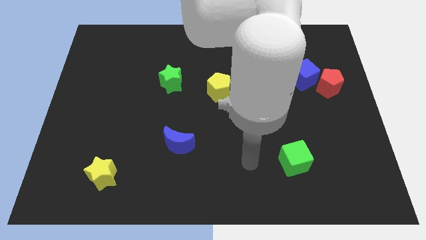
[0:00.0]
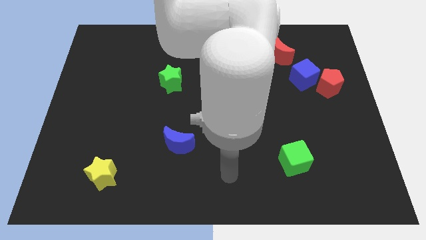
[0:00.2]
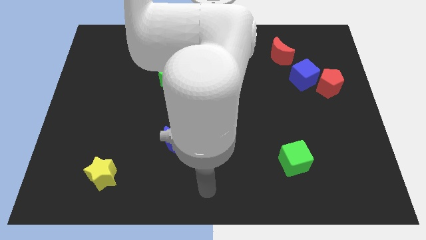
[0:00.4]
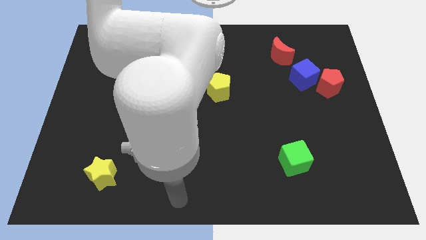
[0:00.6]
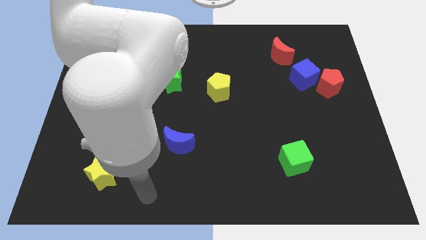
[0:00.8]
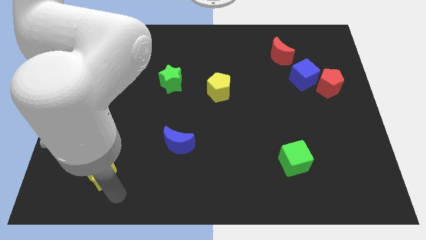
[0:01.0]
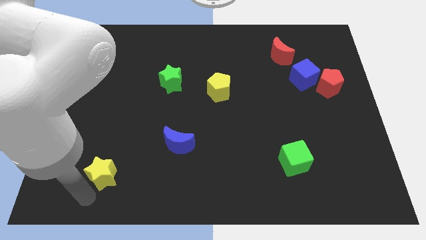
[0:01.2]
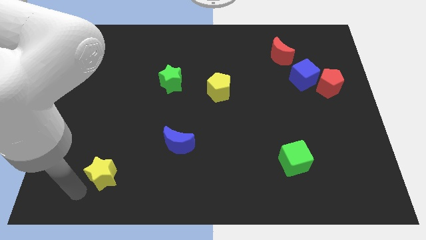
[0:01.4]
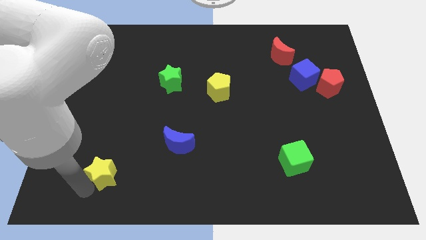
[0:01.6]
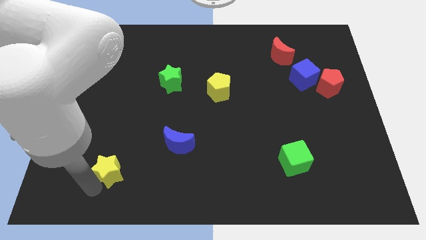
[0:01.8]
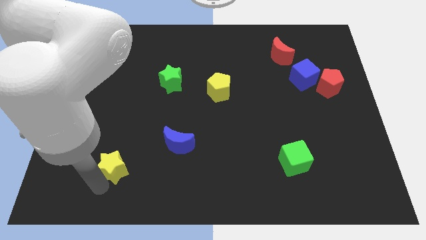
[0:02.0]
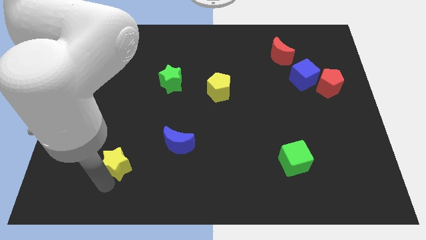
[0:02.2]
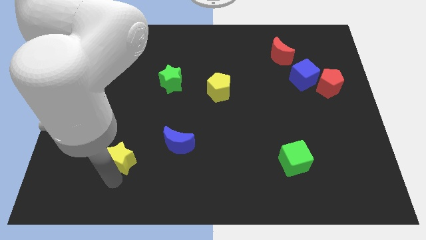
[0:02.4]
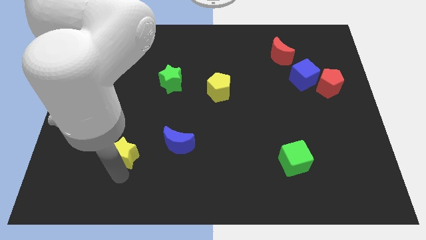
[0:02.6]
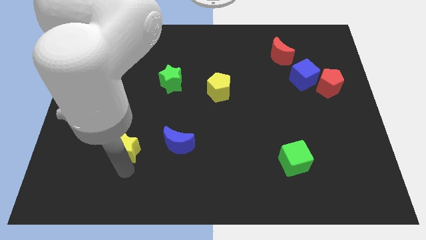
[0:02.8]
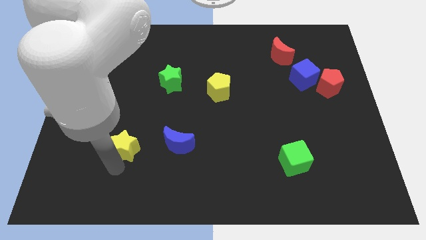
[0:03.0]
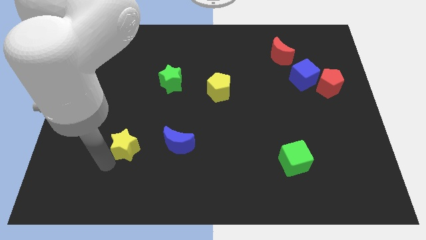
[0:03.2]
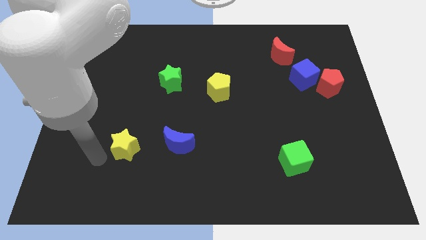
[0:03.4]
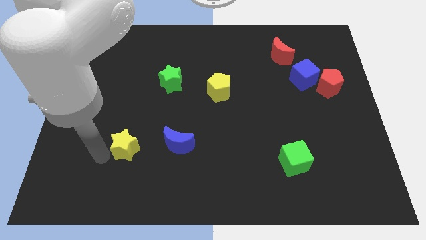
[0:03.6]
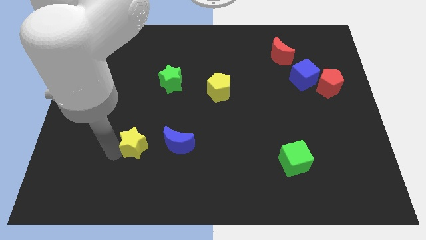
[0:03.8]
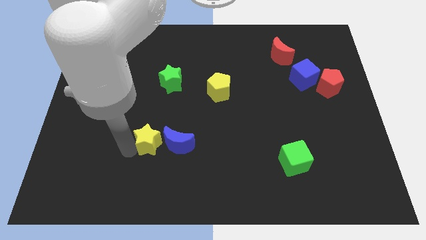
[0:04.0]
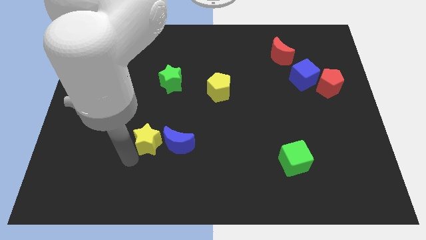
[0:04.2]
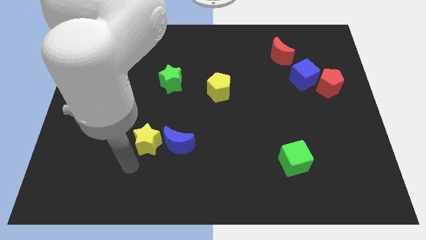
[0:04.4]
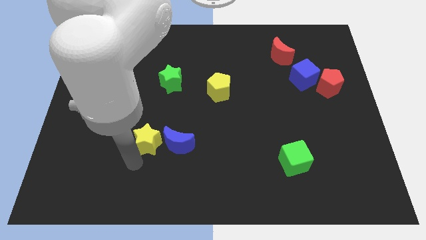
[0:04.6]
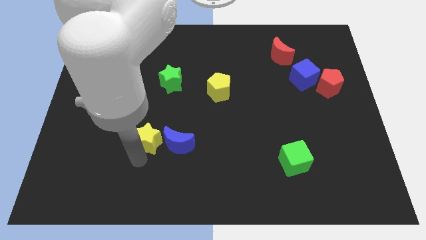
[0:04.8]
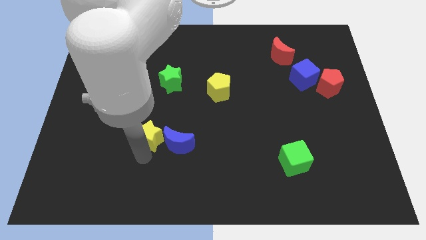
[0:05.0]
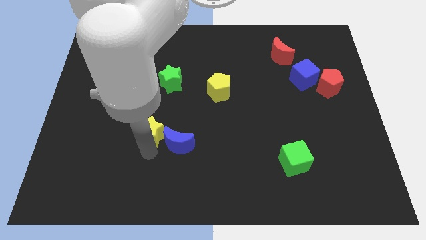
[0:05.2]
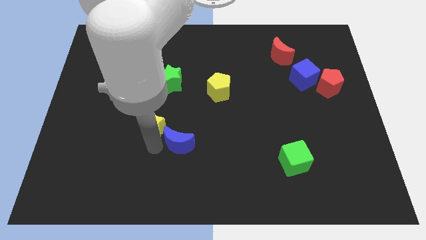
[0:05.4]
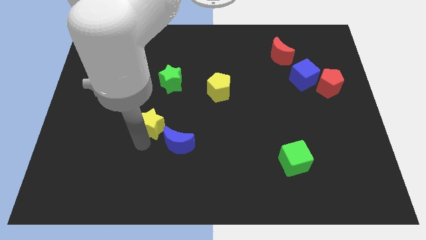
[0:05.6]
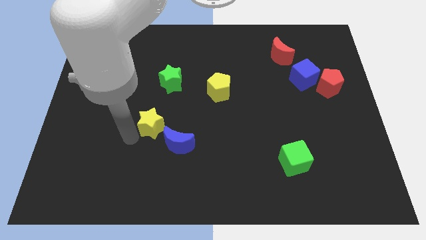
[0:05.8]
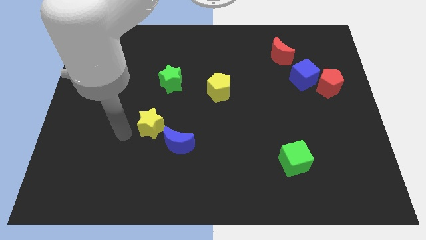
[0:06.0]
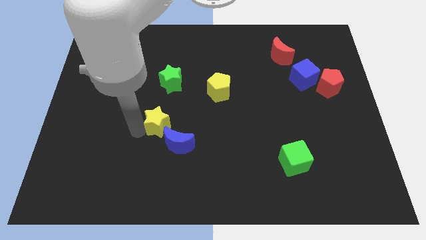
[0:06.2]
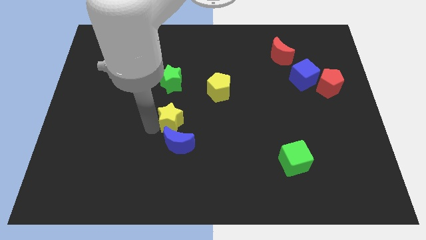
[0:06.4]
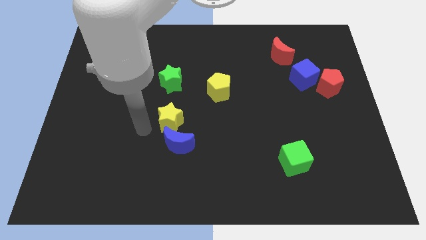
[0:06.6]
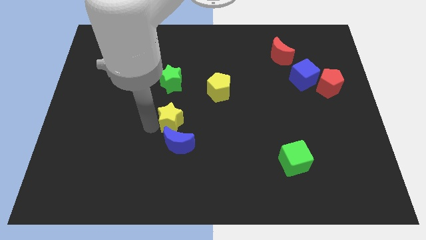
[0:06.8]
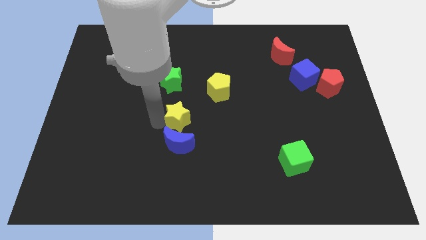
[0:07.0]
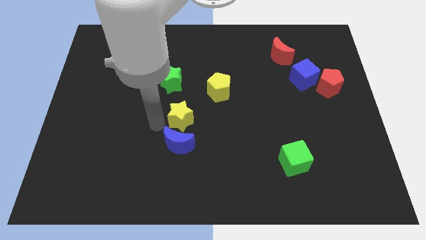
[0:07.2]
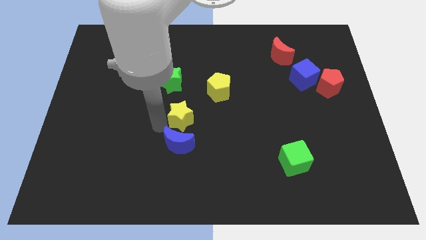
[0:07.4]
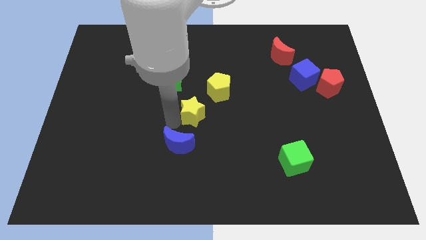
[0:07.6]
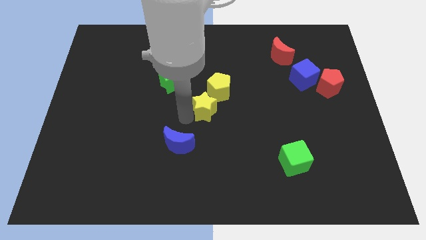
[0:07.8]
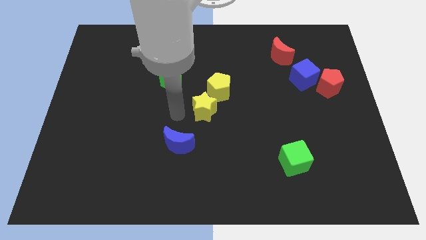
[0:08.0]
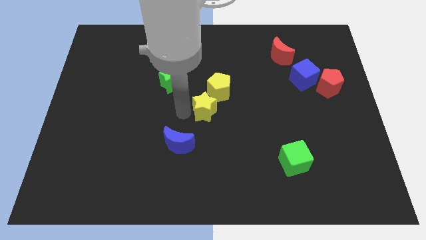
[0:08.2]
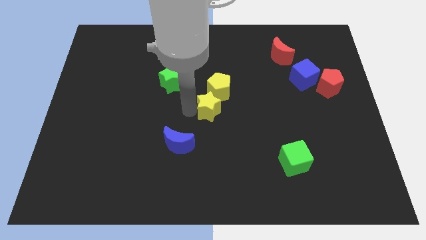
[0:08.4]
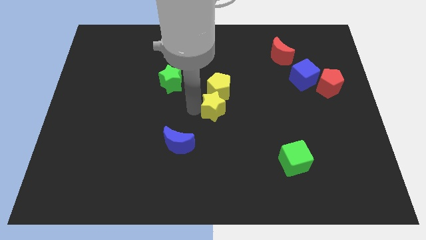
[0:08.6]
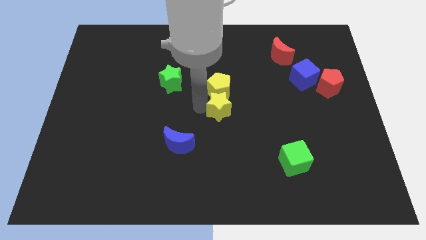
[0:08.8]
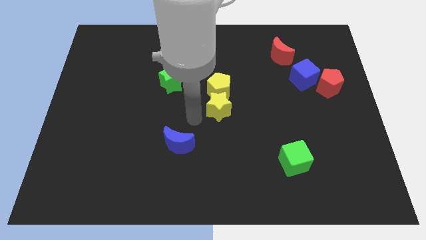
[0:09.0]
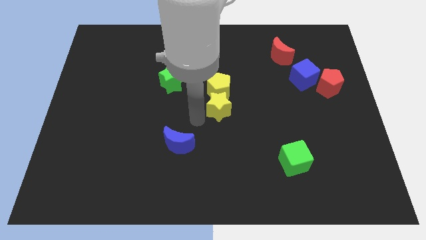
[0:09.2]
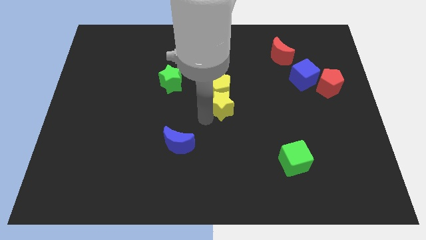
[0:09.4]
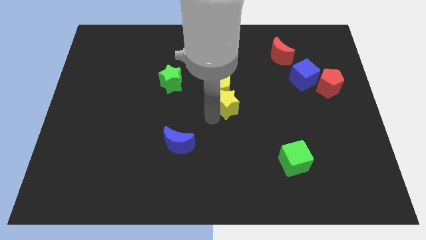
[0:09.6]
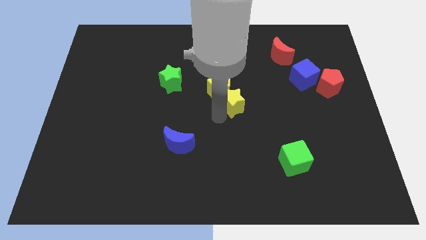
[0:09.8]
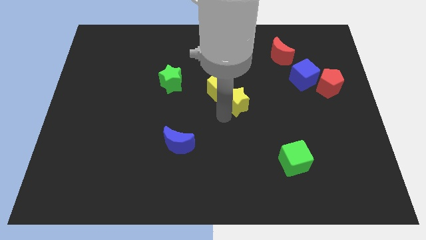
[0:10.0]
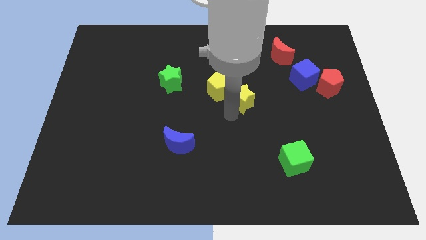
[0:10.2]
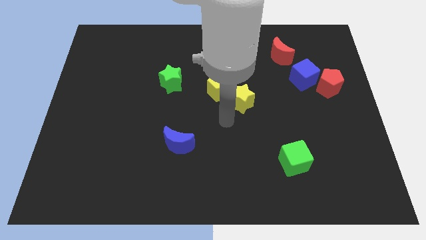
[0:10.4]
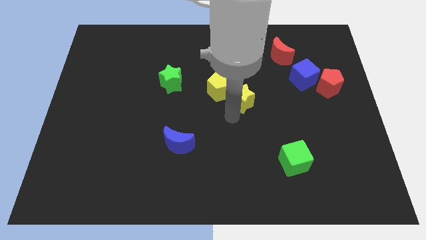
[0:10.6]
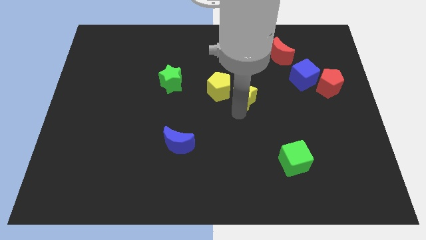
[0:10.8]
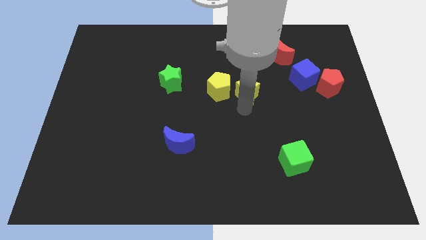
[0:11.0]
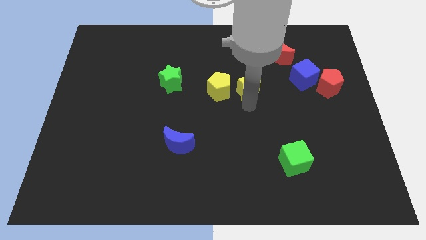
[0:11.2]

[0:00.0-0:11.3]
push the yellow star left of the blue cube
